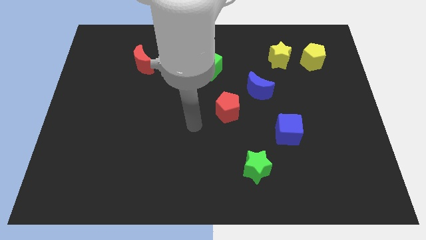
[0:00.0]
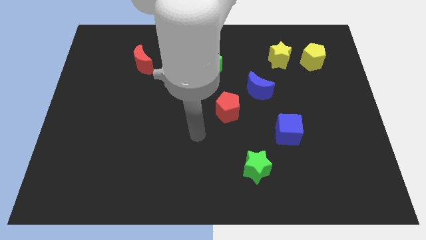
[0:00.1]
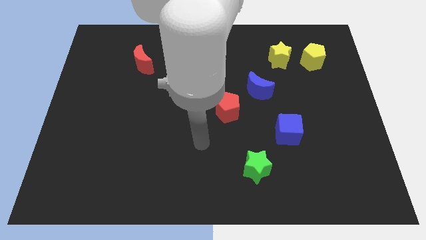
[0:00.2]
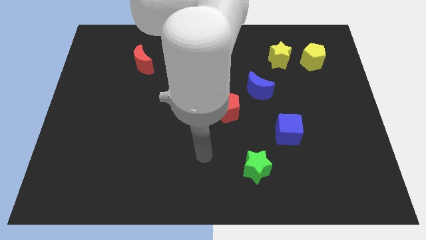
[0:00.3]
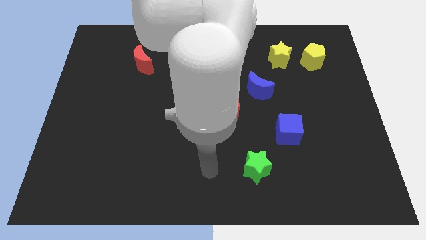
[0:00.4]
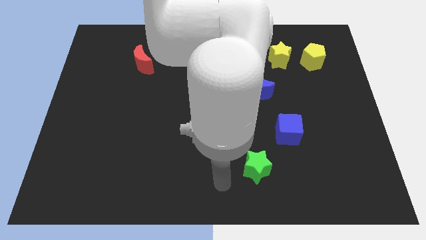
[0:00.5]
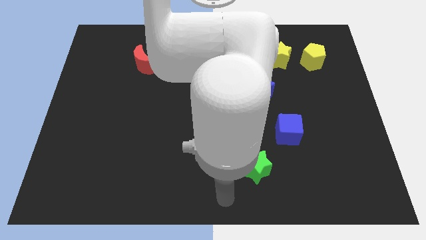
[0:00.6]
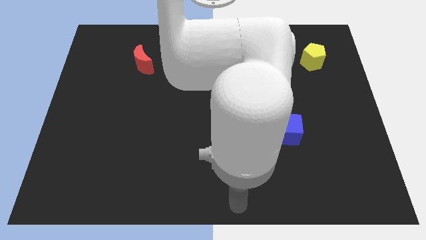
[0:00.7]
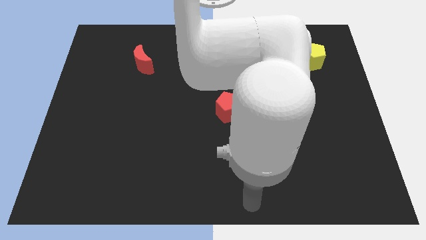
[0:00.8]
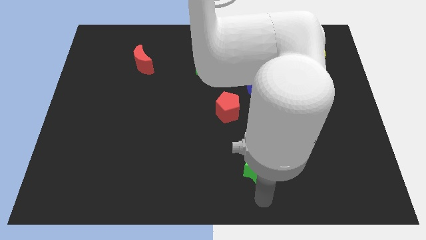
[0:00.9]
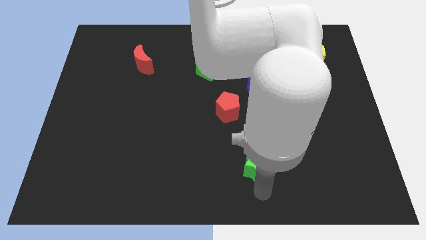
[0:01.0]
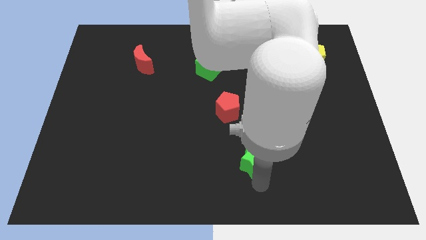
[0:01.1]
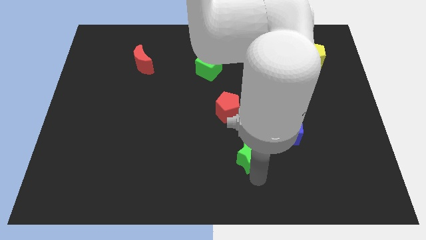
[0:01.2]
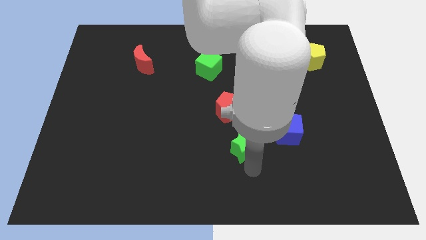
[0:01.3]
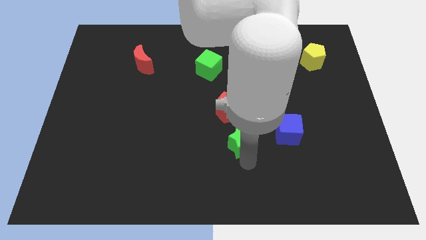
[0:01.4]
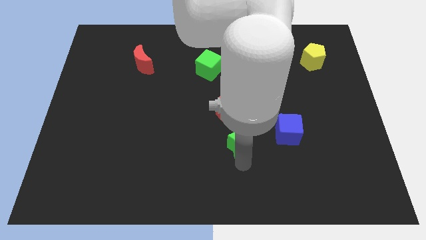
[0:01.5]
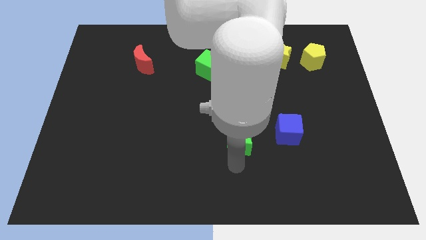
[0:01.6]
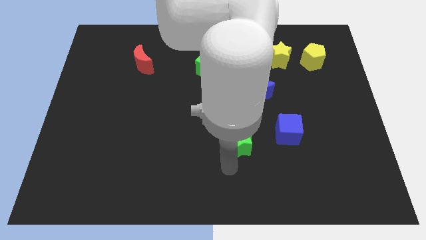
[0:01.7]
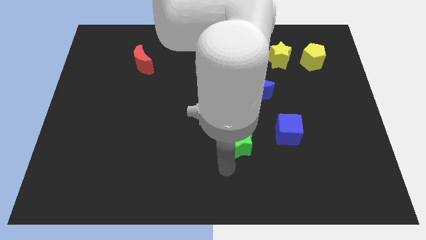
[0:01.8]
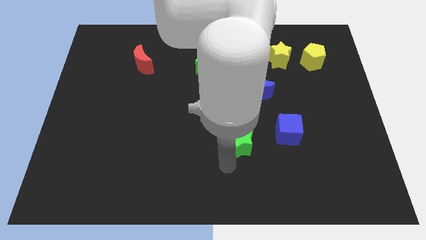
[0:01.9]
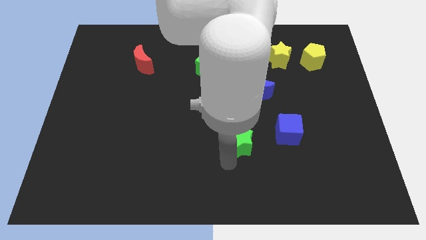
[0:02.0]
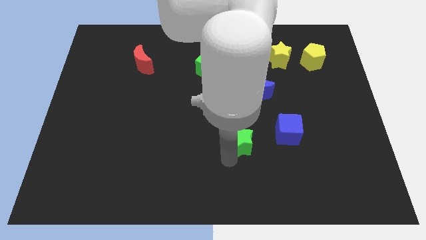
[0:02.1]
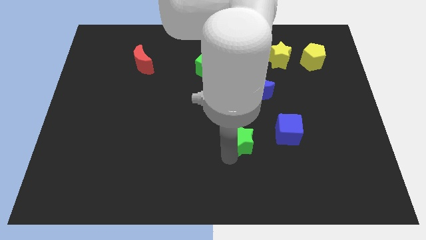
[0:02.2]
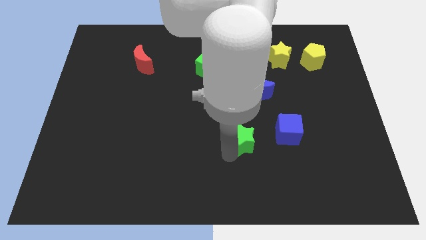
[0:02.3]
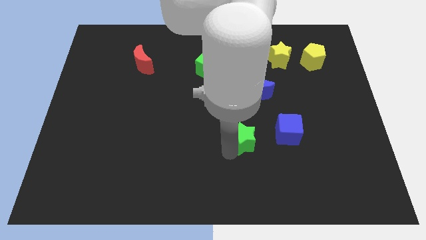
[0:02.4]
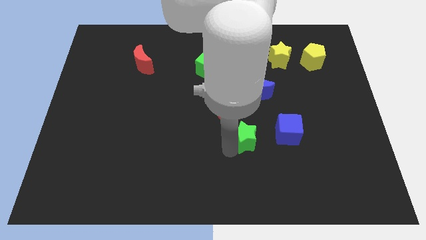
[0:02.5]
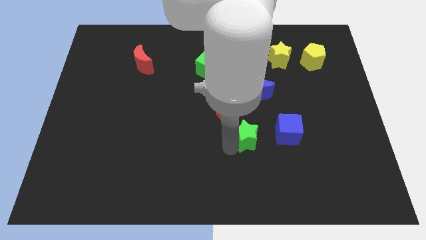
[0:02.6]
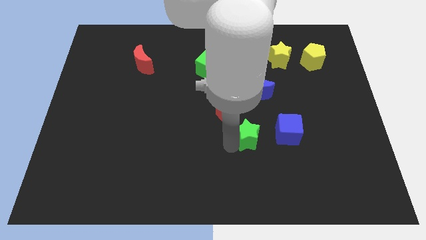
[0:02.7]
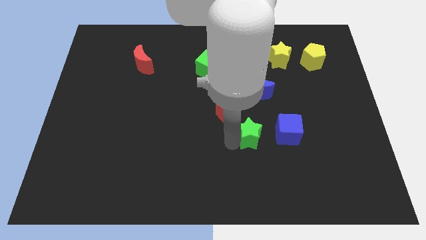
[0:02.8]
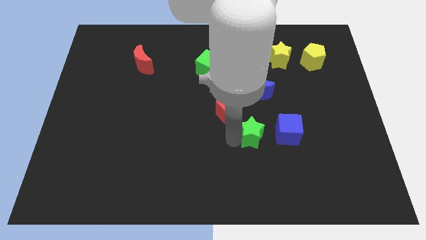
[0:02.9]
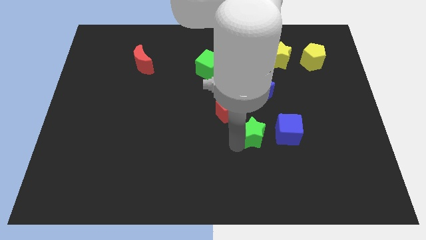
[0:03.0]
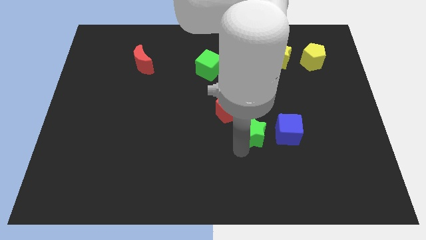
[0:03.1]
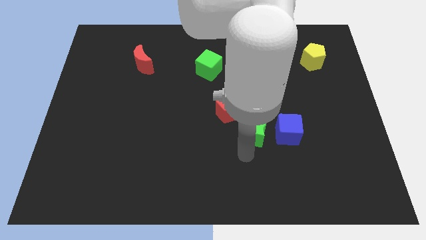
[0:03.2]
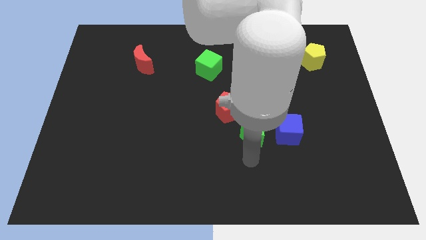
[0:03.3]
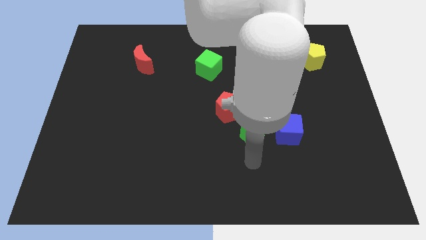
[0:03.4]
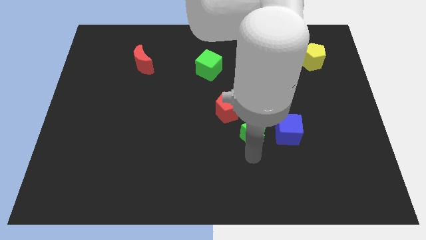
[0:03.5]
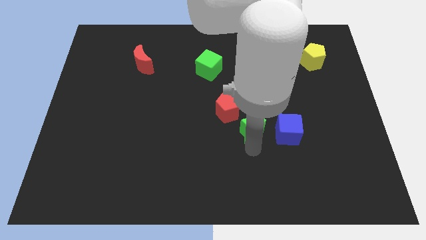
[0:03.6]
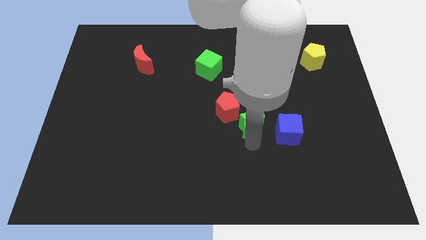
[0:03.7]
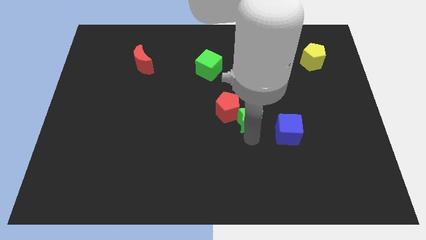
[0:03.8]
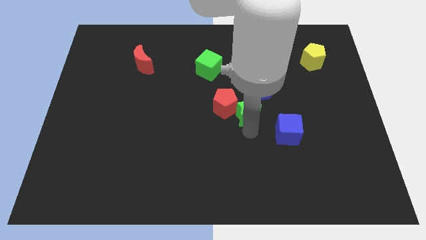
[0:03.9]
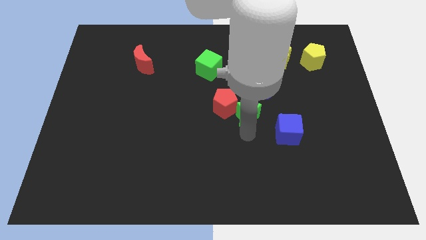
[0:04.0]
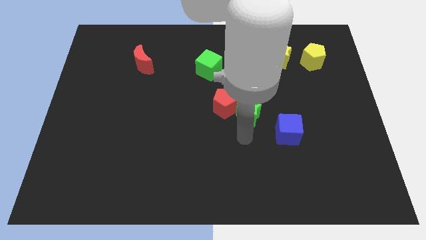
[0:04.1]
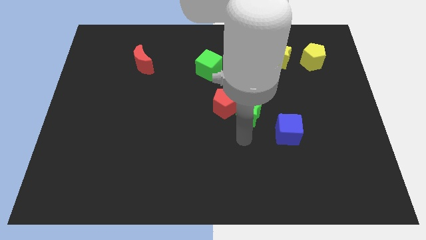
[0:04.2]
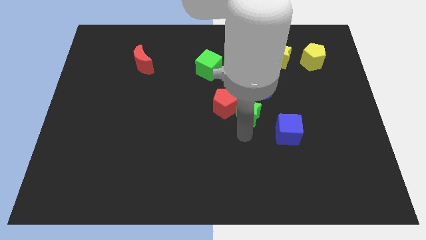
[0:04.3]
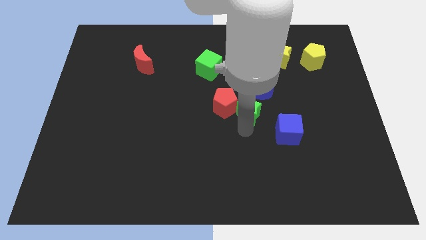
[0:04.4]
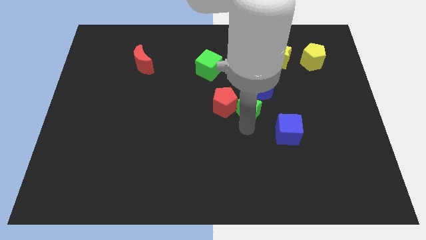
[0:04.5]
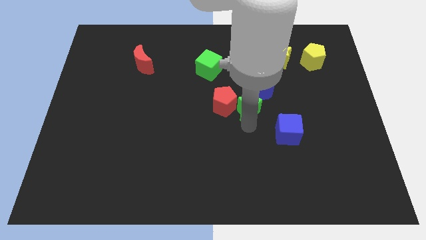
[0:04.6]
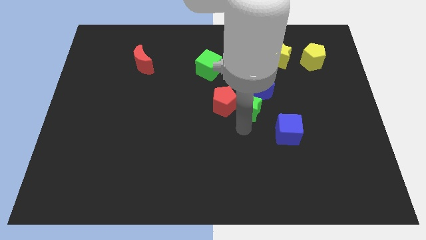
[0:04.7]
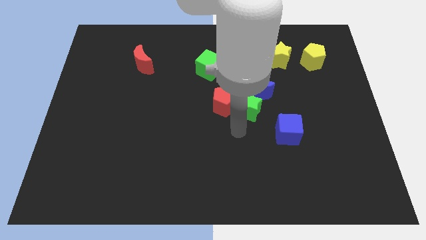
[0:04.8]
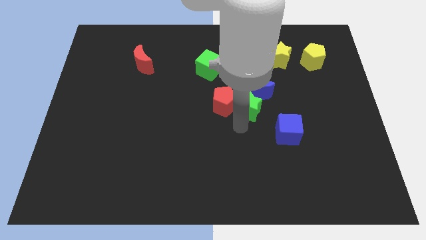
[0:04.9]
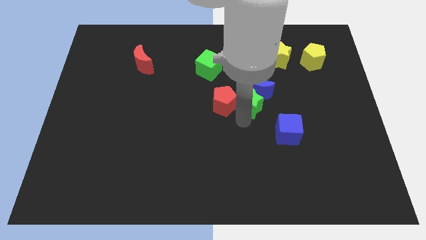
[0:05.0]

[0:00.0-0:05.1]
put the green star towards the blue moon

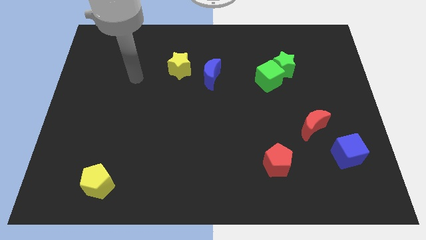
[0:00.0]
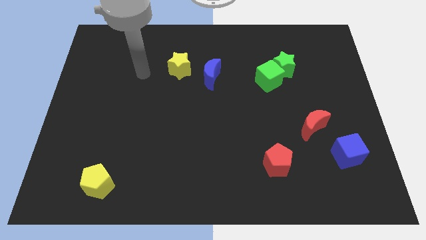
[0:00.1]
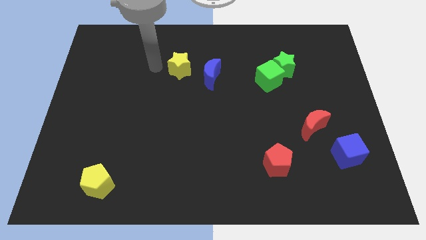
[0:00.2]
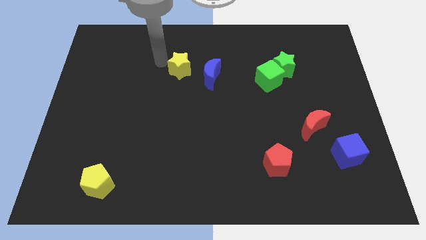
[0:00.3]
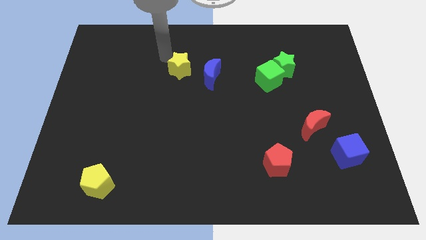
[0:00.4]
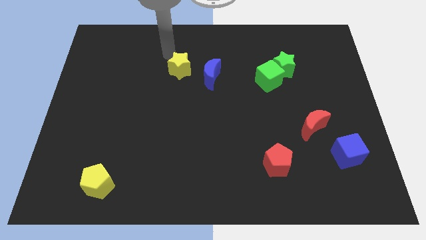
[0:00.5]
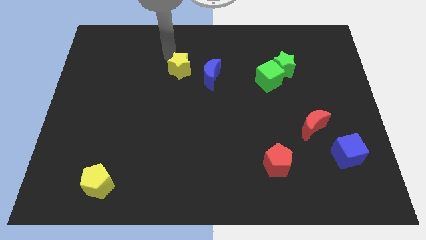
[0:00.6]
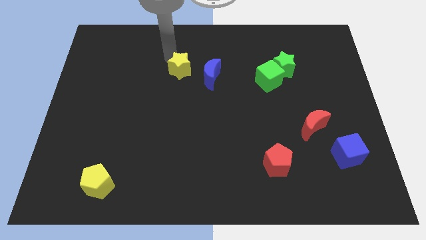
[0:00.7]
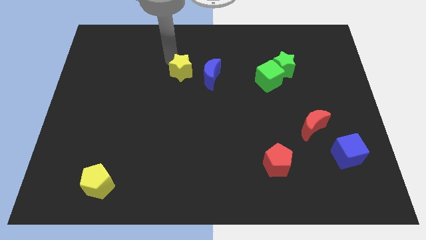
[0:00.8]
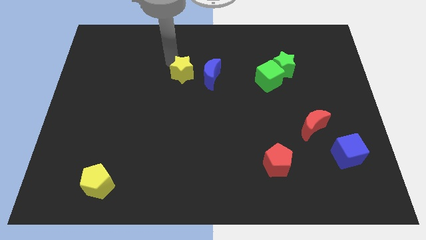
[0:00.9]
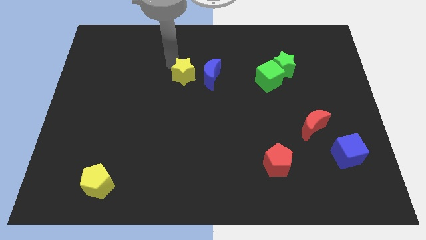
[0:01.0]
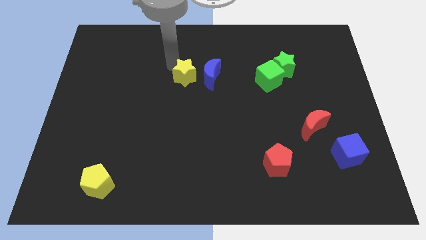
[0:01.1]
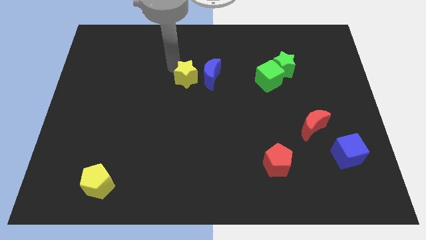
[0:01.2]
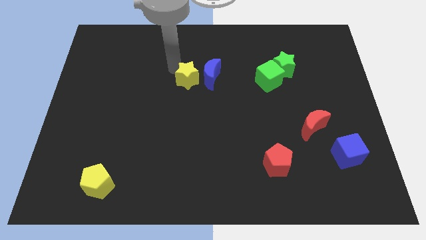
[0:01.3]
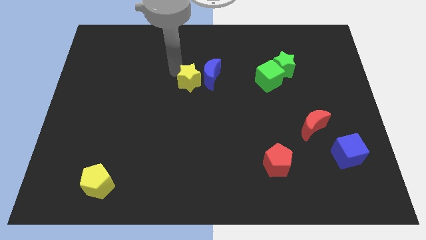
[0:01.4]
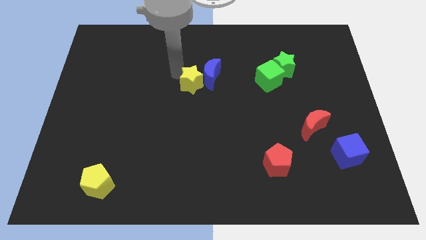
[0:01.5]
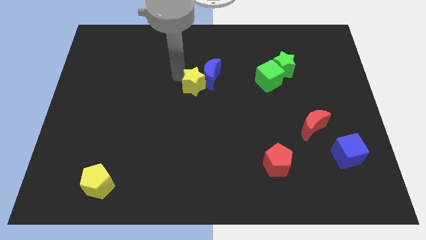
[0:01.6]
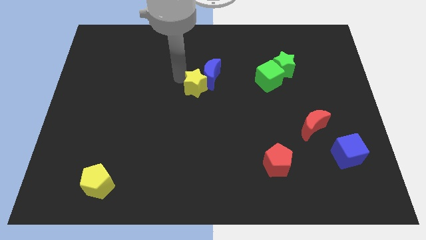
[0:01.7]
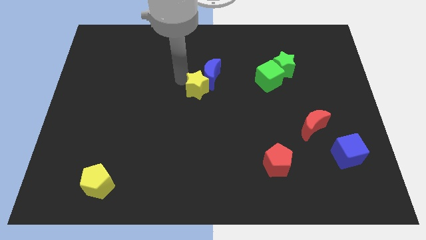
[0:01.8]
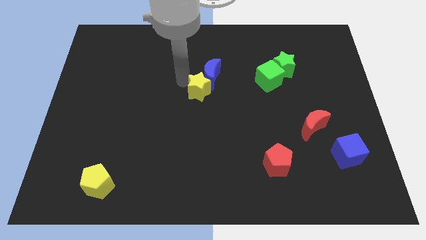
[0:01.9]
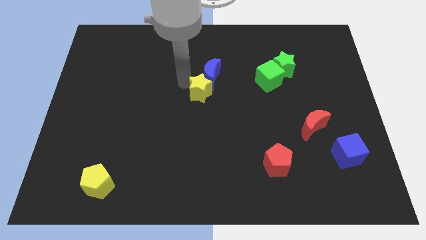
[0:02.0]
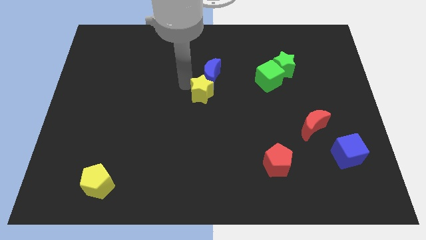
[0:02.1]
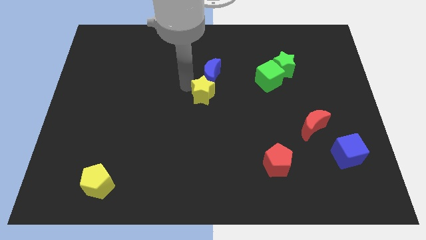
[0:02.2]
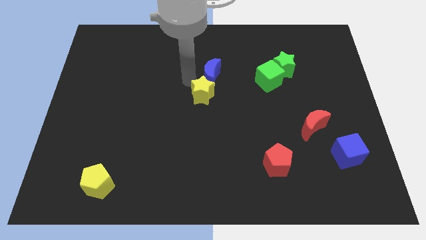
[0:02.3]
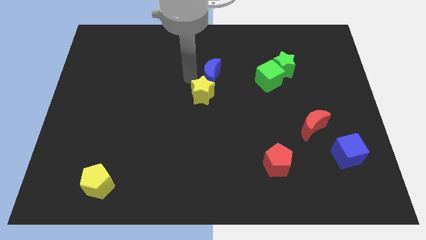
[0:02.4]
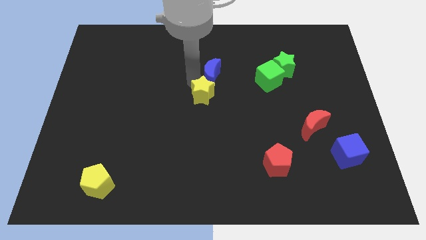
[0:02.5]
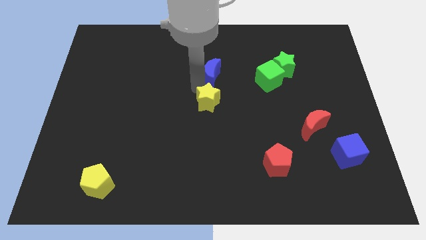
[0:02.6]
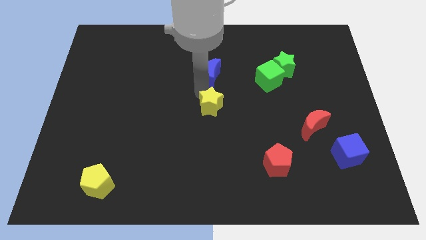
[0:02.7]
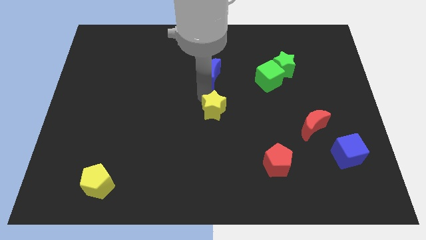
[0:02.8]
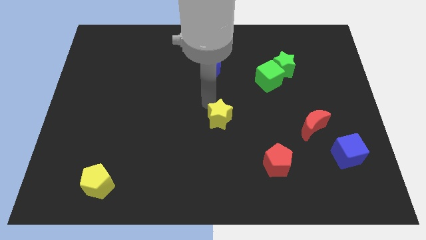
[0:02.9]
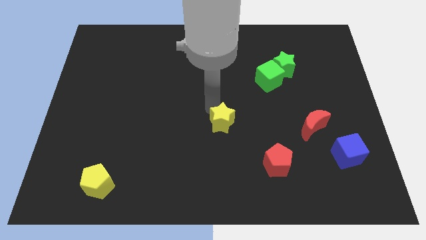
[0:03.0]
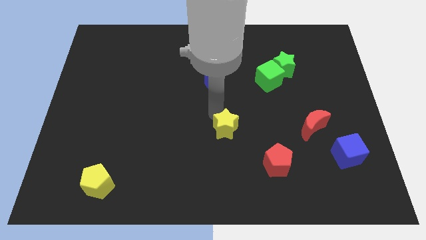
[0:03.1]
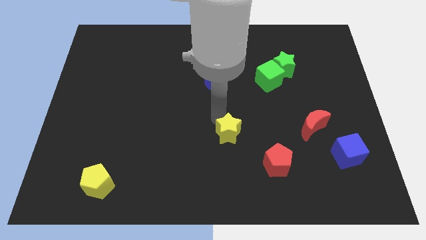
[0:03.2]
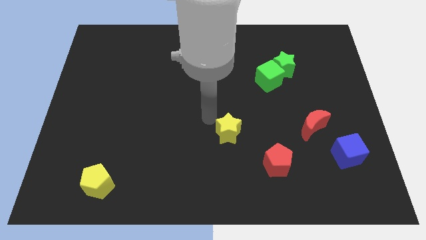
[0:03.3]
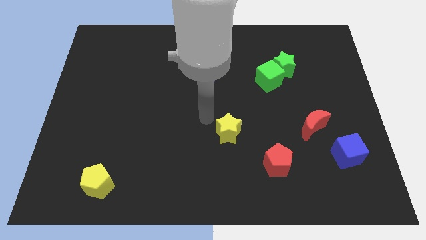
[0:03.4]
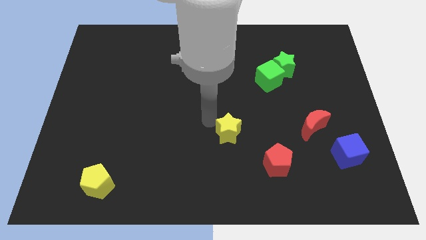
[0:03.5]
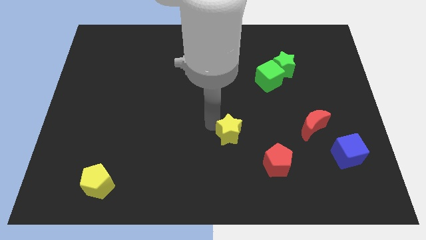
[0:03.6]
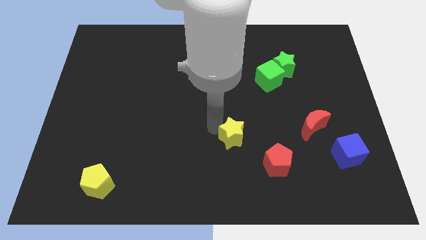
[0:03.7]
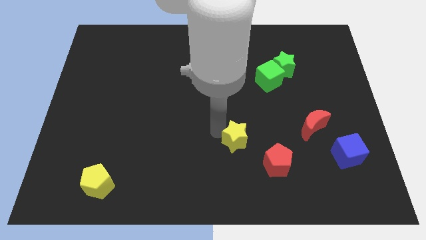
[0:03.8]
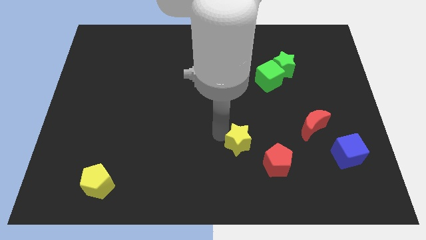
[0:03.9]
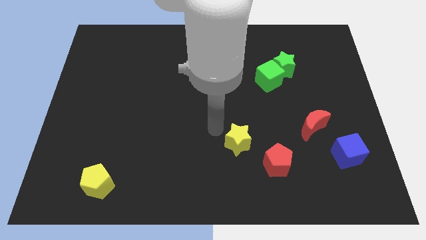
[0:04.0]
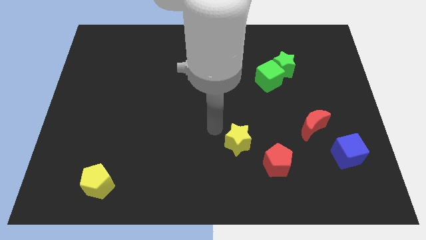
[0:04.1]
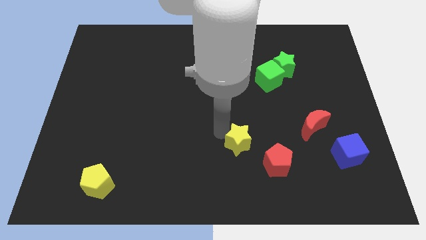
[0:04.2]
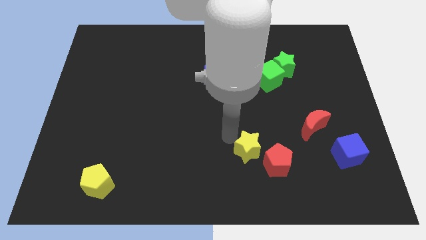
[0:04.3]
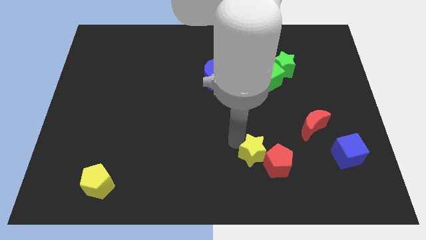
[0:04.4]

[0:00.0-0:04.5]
put the yellow star next to the red pentagon
